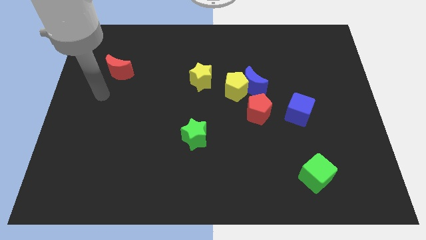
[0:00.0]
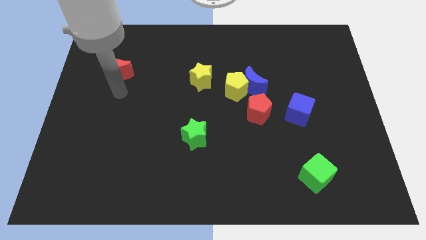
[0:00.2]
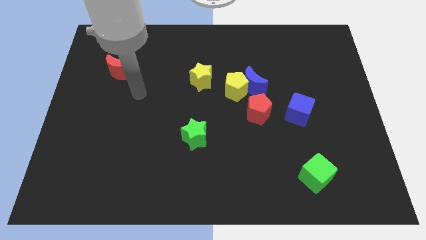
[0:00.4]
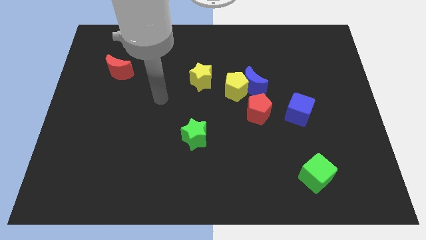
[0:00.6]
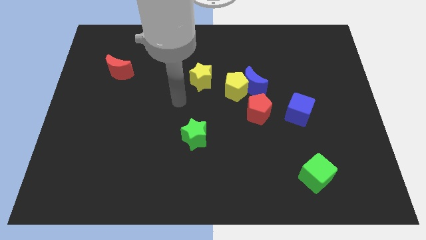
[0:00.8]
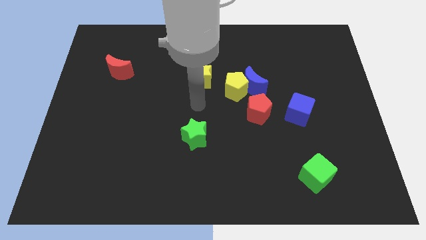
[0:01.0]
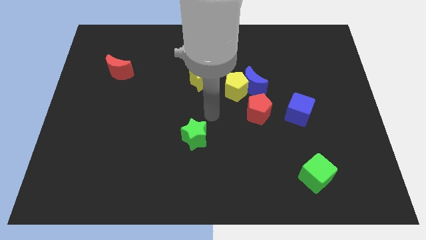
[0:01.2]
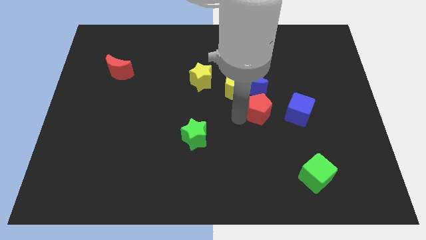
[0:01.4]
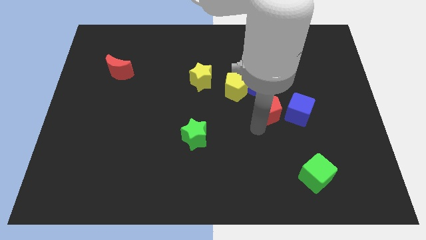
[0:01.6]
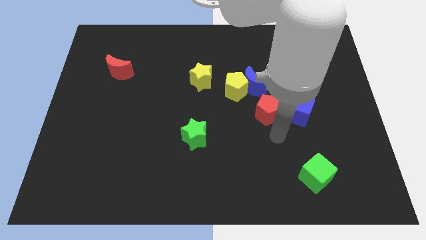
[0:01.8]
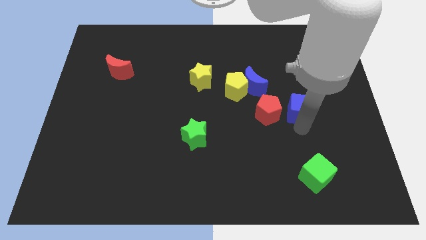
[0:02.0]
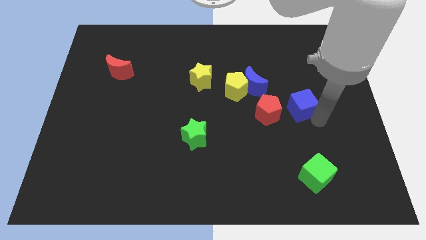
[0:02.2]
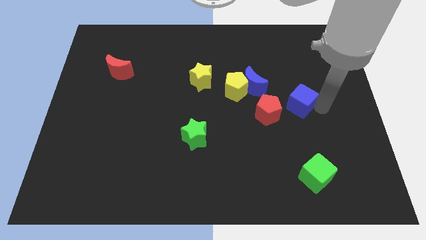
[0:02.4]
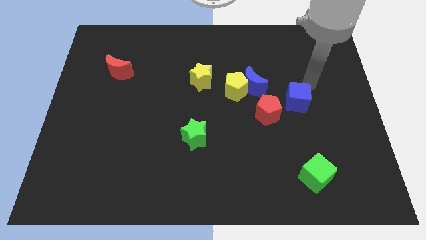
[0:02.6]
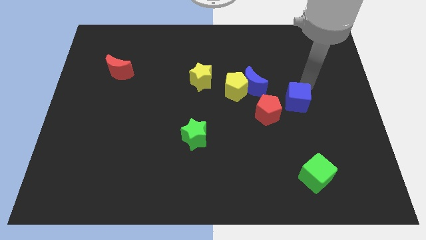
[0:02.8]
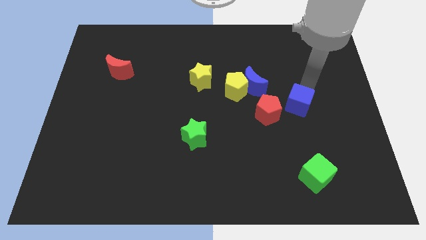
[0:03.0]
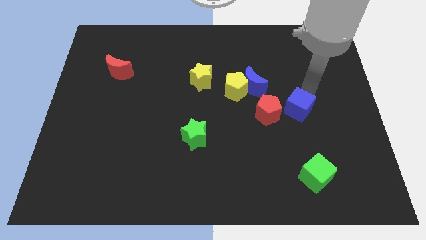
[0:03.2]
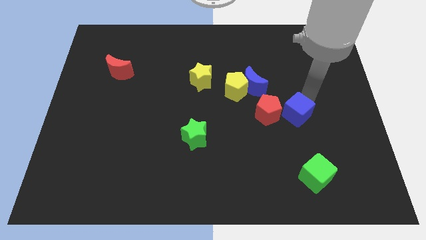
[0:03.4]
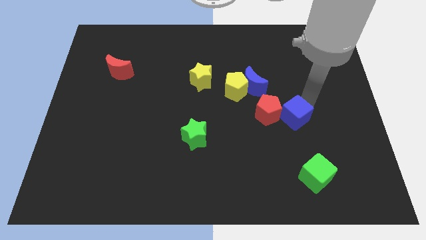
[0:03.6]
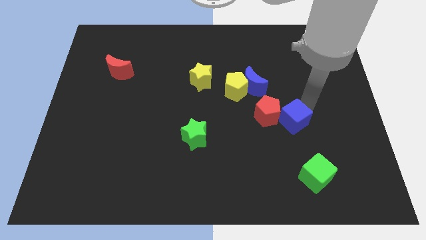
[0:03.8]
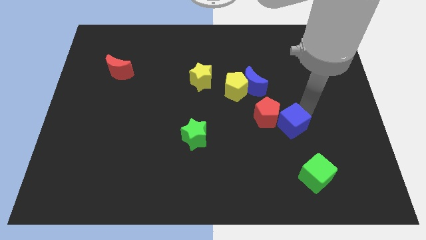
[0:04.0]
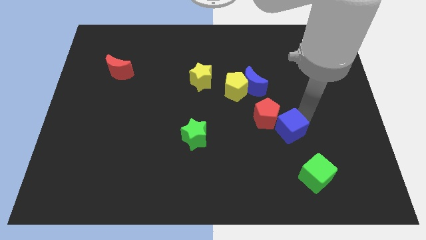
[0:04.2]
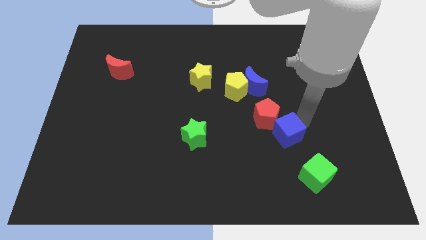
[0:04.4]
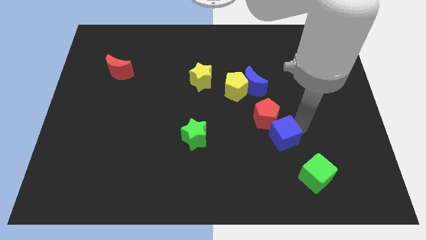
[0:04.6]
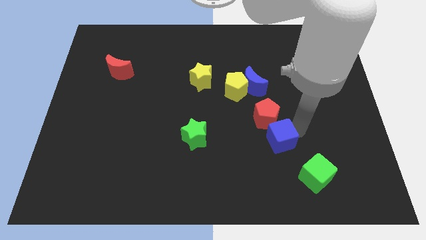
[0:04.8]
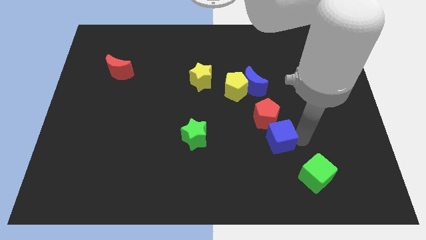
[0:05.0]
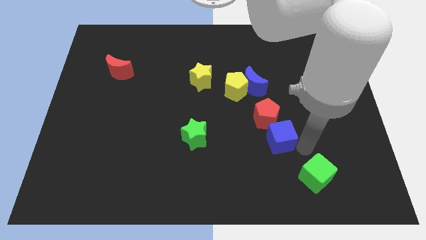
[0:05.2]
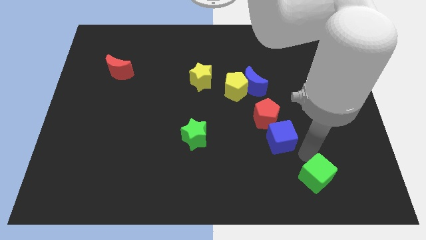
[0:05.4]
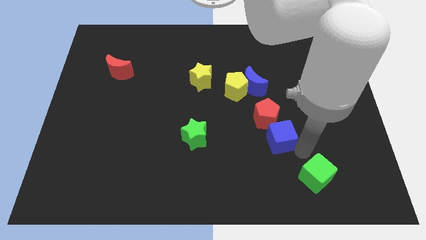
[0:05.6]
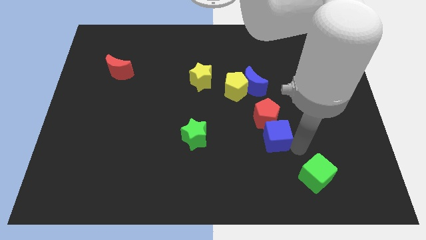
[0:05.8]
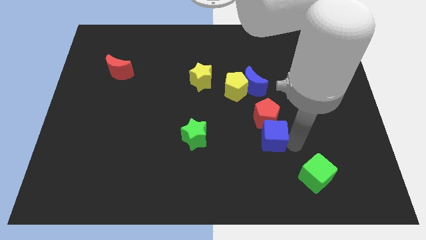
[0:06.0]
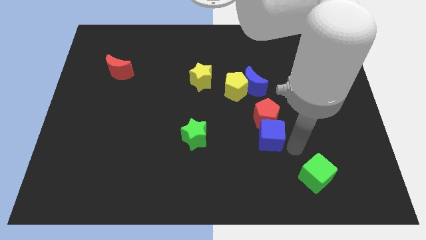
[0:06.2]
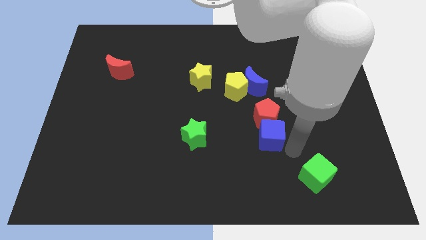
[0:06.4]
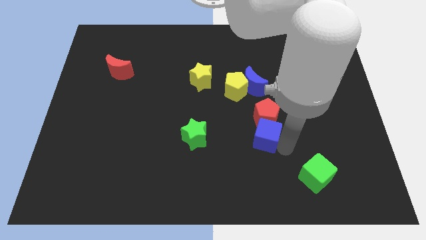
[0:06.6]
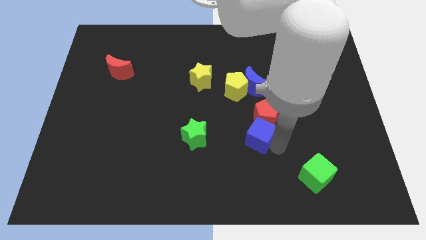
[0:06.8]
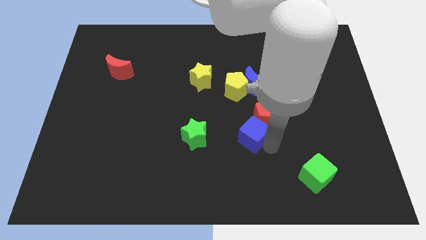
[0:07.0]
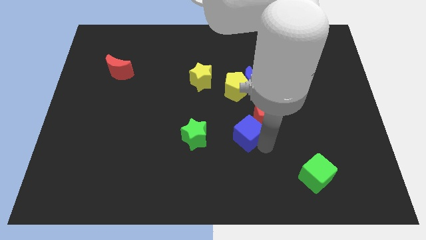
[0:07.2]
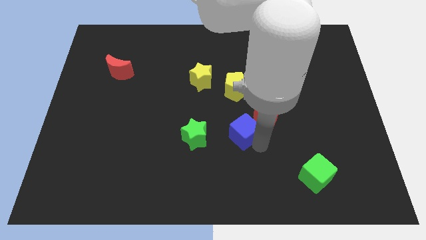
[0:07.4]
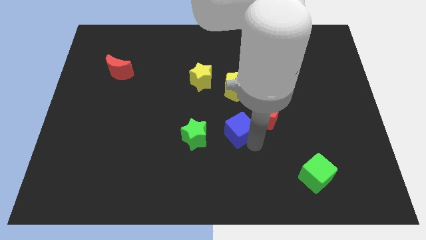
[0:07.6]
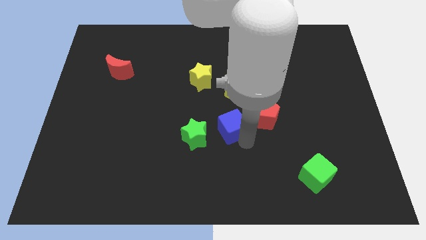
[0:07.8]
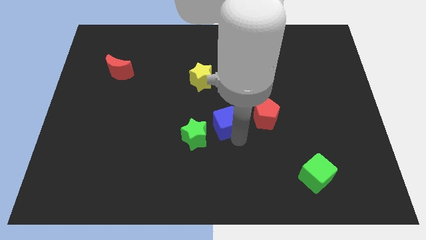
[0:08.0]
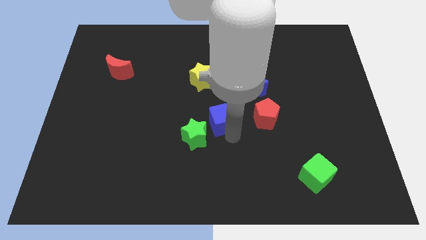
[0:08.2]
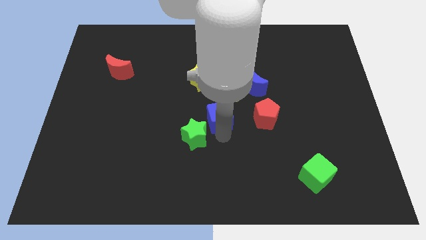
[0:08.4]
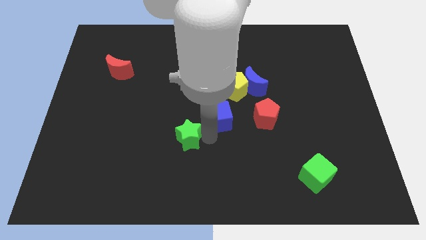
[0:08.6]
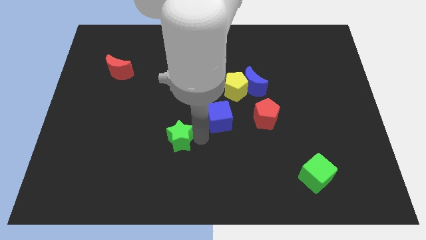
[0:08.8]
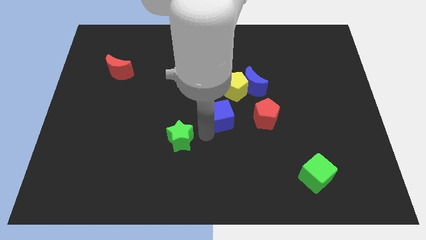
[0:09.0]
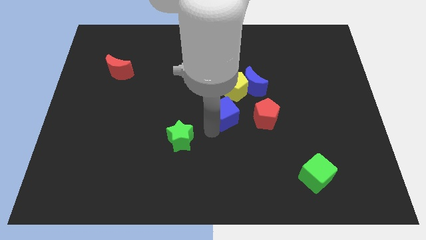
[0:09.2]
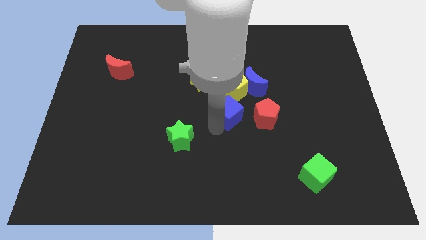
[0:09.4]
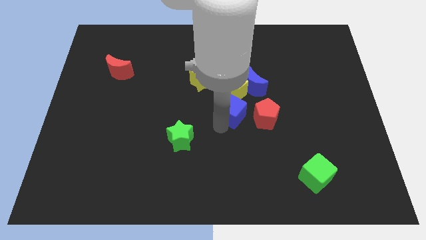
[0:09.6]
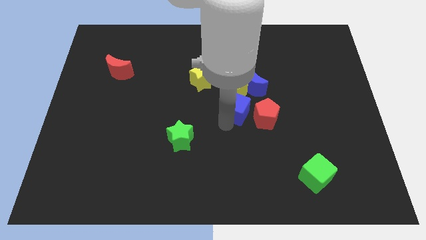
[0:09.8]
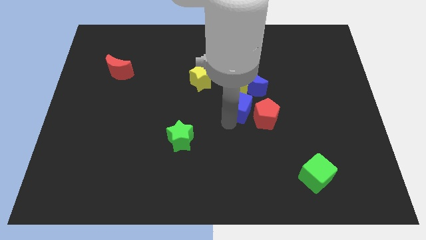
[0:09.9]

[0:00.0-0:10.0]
push the blue cube towards the yellow pentagon

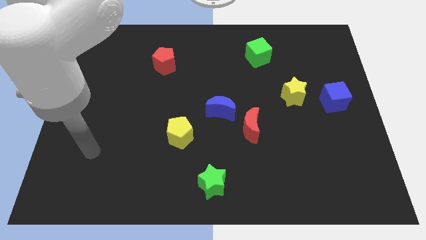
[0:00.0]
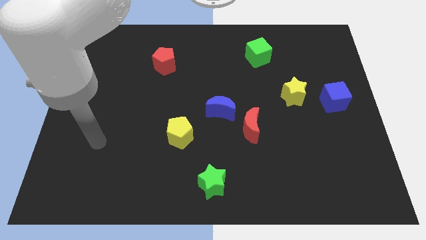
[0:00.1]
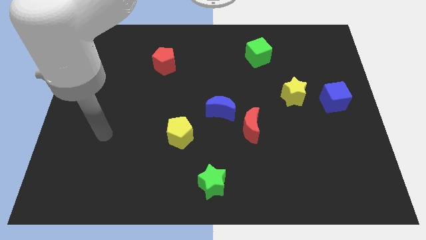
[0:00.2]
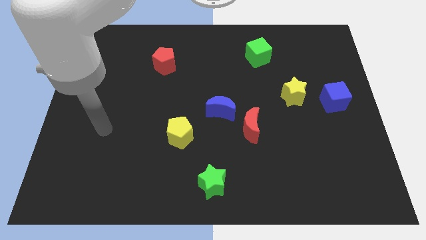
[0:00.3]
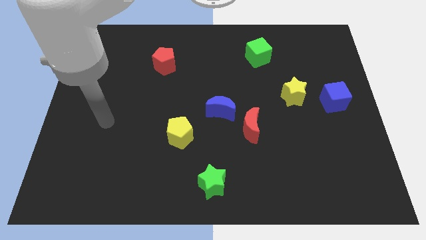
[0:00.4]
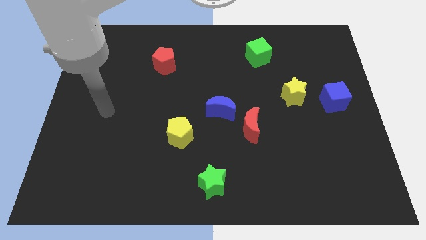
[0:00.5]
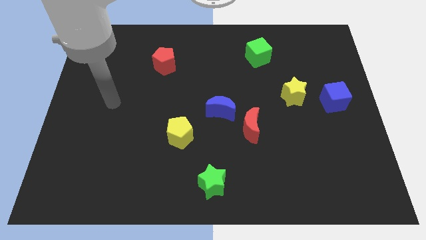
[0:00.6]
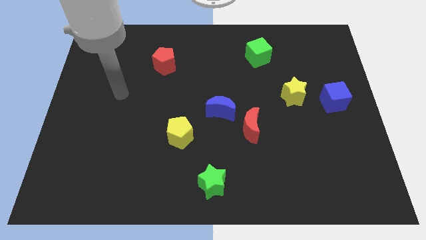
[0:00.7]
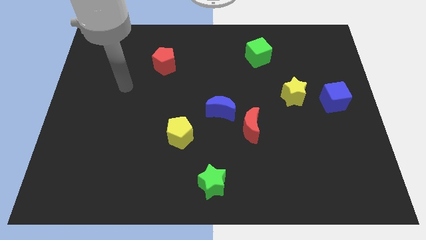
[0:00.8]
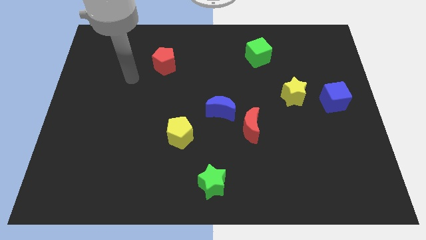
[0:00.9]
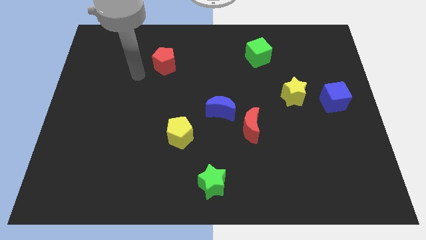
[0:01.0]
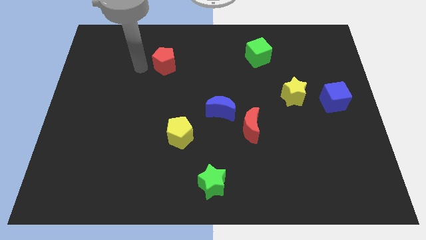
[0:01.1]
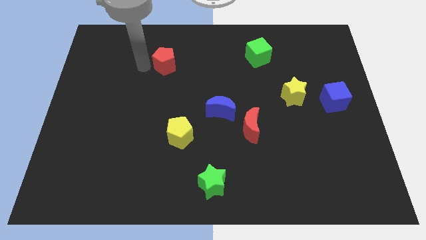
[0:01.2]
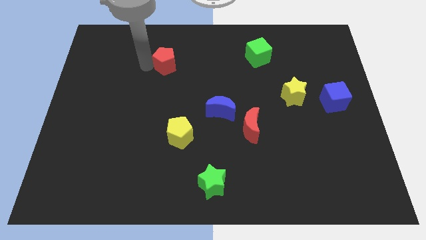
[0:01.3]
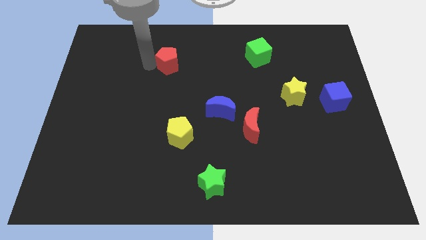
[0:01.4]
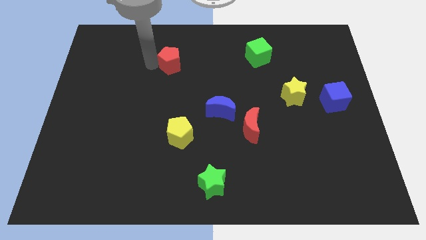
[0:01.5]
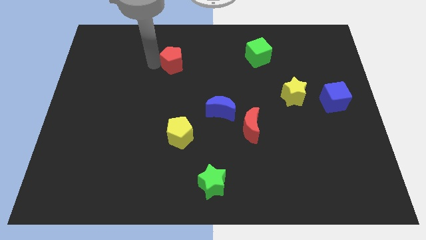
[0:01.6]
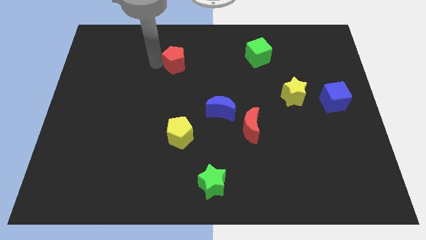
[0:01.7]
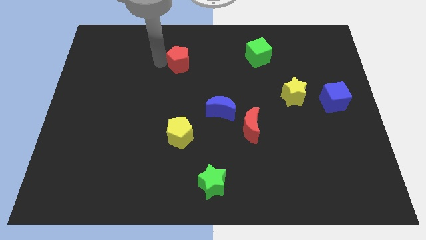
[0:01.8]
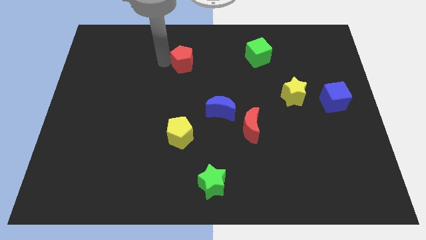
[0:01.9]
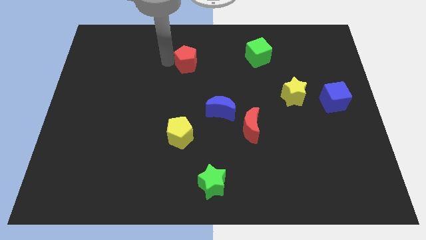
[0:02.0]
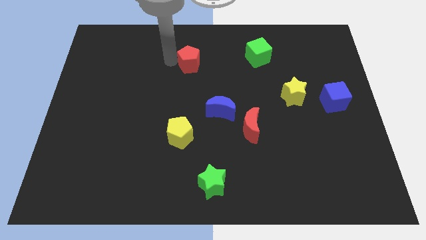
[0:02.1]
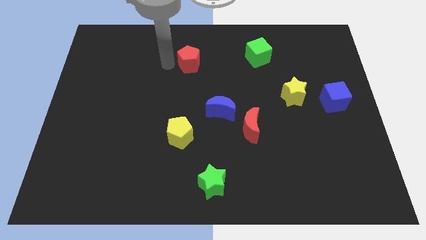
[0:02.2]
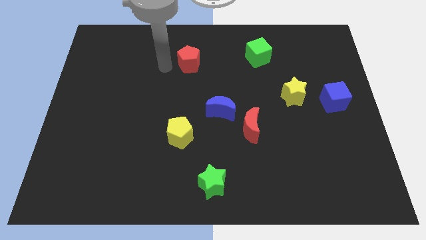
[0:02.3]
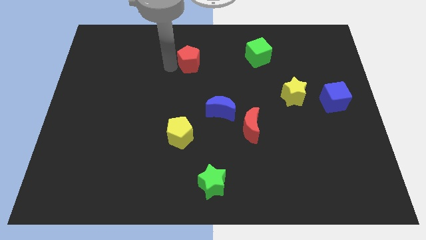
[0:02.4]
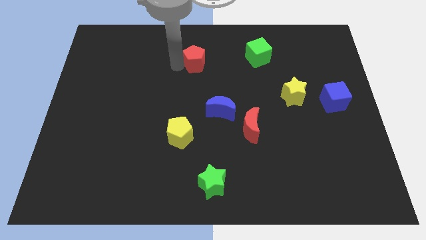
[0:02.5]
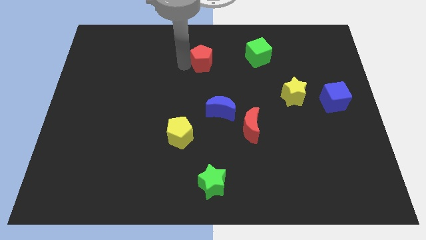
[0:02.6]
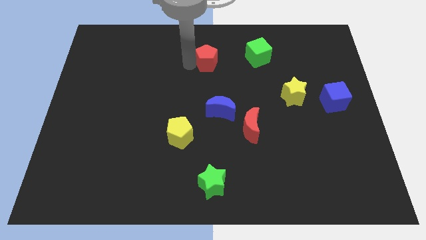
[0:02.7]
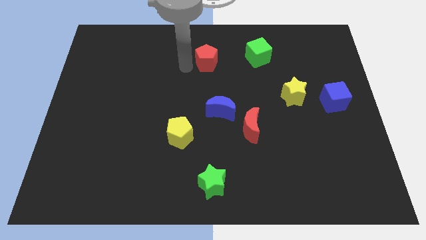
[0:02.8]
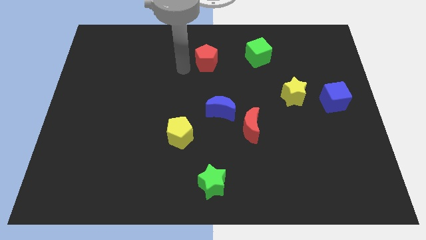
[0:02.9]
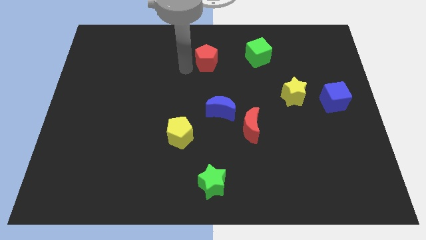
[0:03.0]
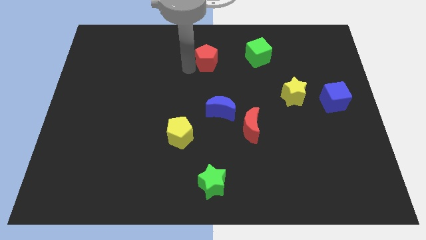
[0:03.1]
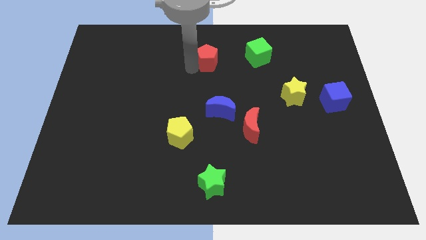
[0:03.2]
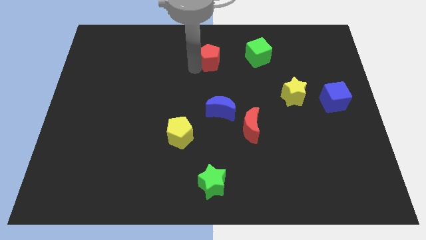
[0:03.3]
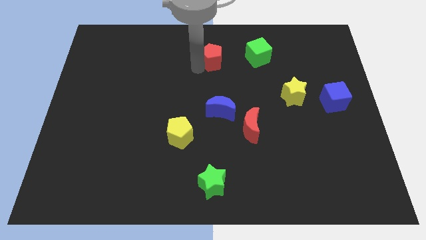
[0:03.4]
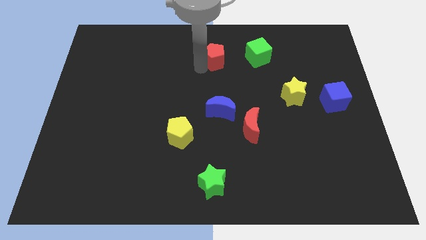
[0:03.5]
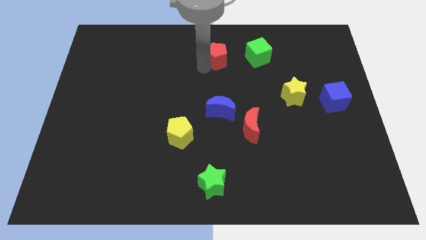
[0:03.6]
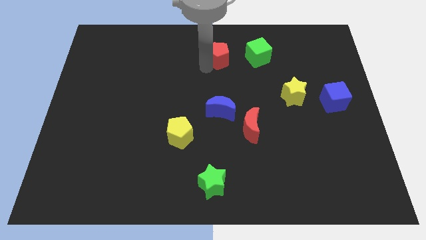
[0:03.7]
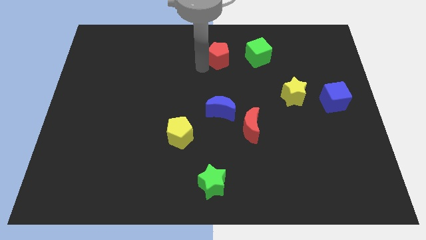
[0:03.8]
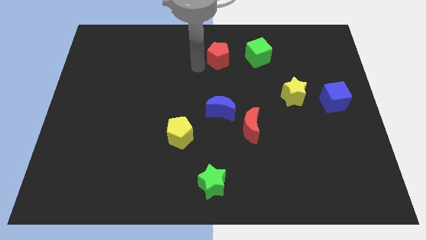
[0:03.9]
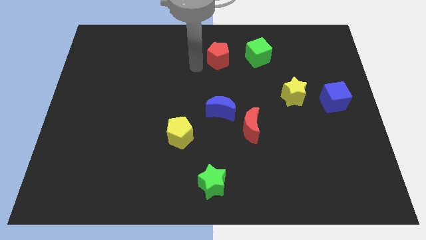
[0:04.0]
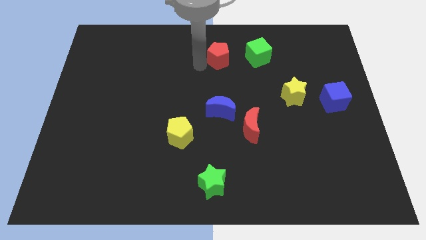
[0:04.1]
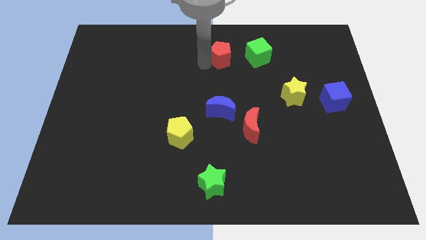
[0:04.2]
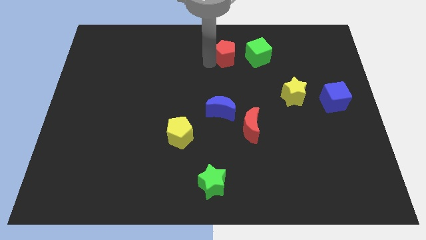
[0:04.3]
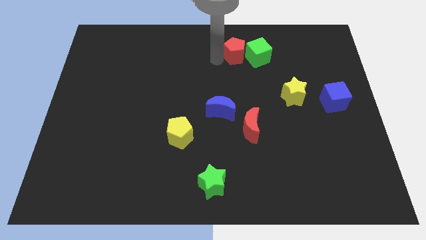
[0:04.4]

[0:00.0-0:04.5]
move the red pentagon next to the green cube
